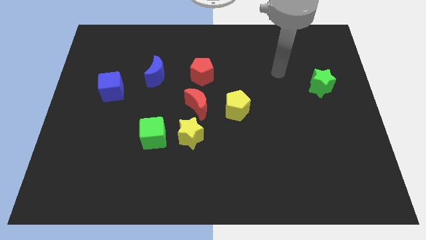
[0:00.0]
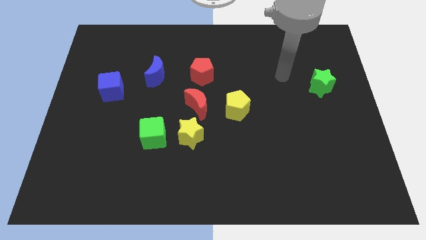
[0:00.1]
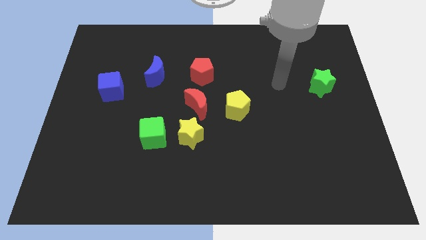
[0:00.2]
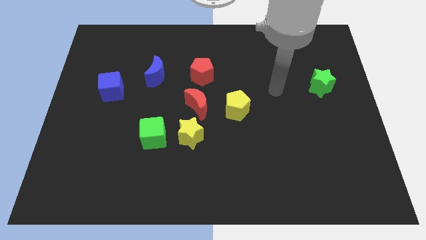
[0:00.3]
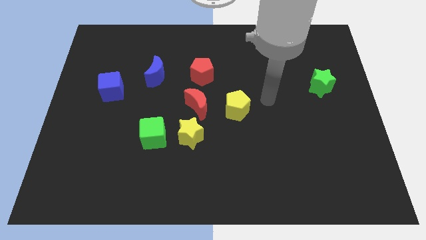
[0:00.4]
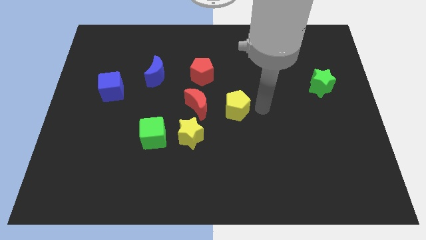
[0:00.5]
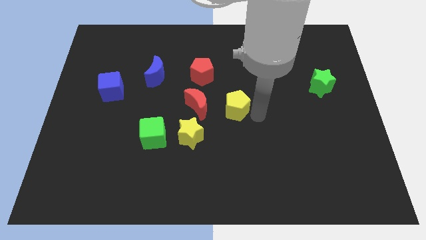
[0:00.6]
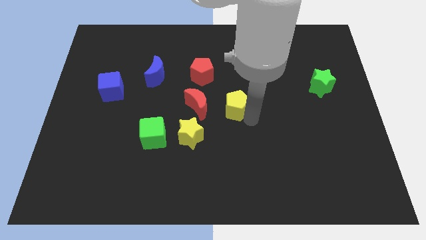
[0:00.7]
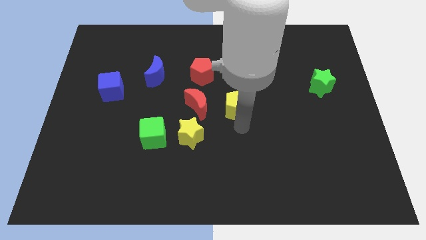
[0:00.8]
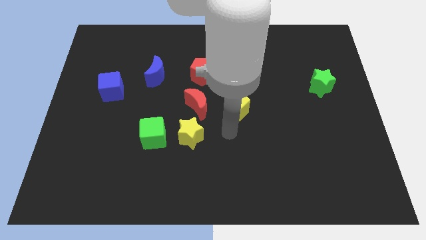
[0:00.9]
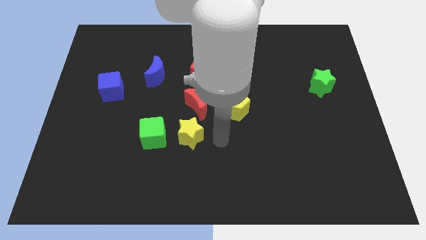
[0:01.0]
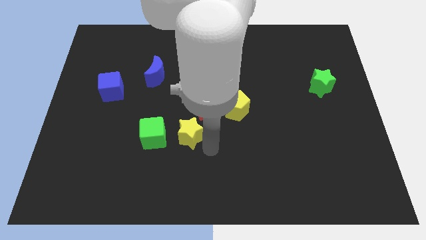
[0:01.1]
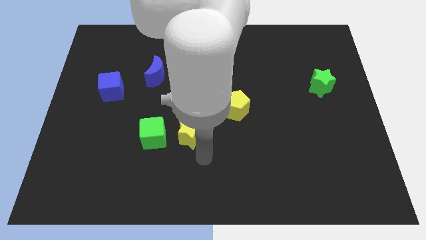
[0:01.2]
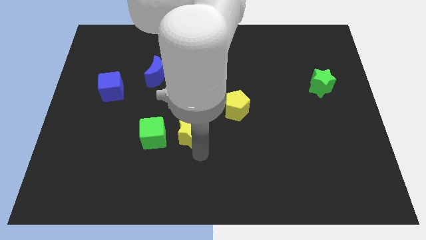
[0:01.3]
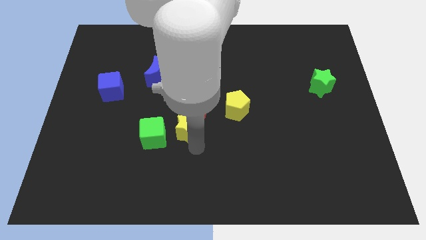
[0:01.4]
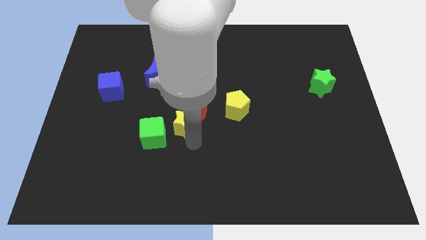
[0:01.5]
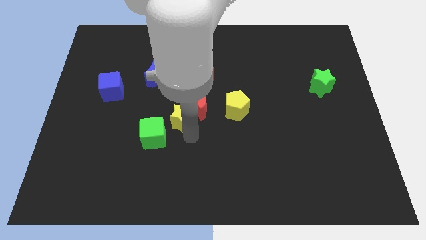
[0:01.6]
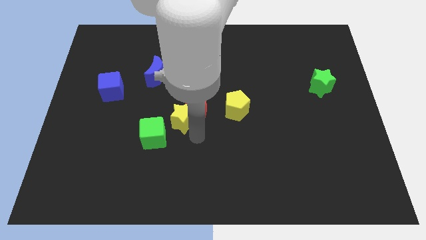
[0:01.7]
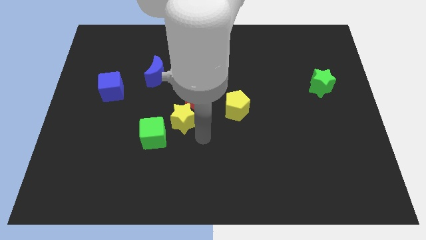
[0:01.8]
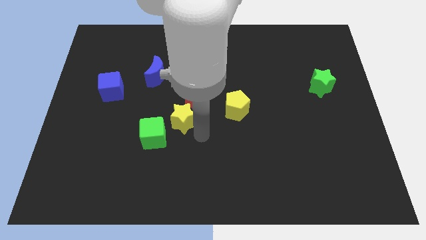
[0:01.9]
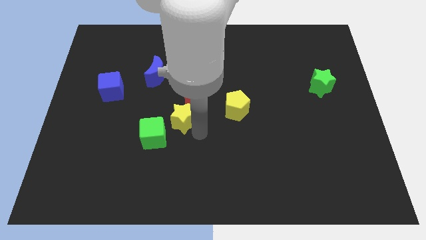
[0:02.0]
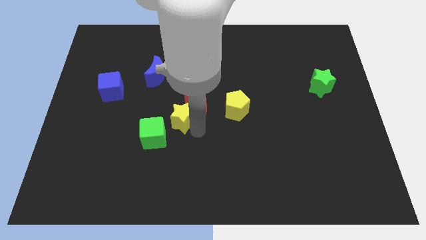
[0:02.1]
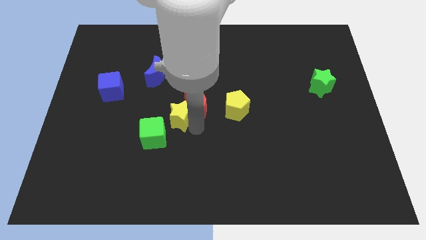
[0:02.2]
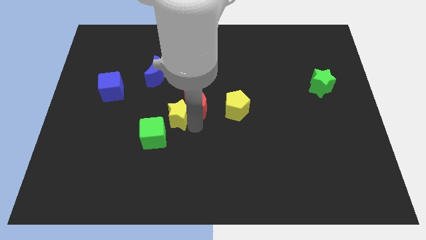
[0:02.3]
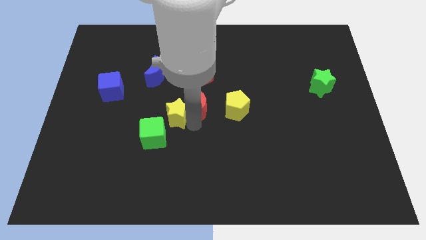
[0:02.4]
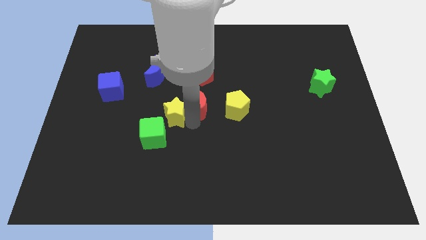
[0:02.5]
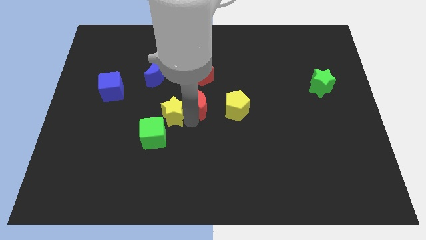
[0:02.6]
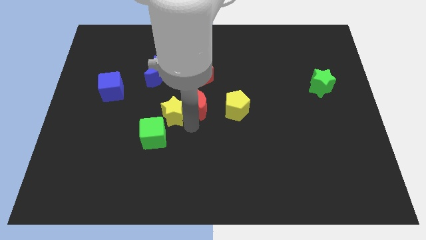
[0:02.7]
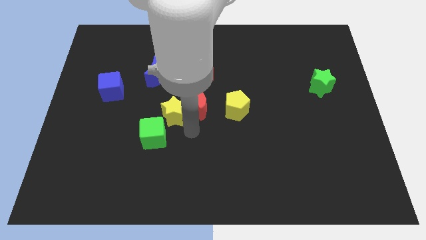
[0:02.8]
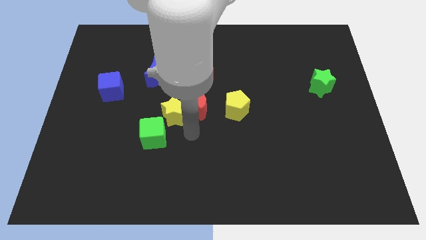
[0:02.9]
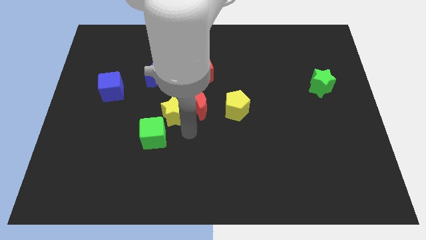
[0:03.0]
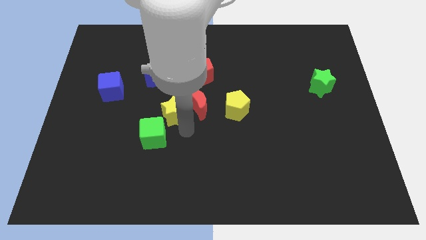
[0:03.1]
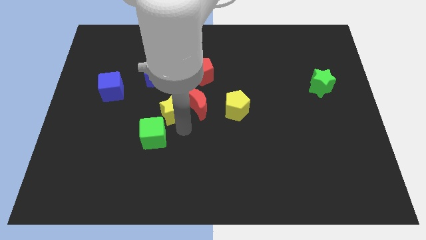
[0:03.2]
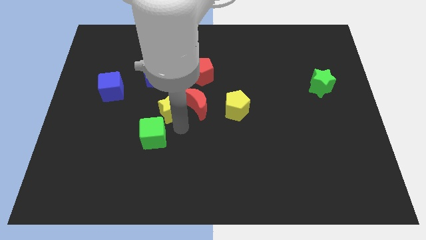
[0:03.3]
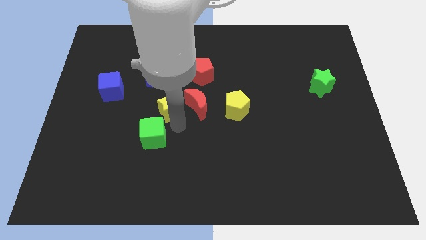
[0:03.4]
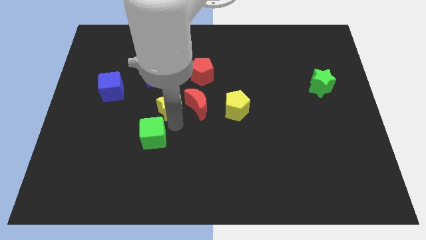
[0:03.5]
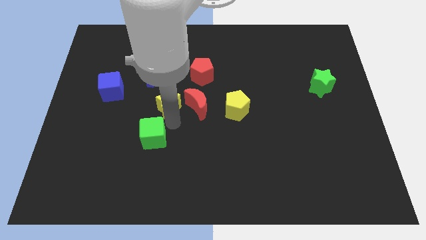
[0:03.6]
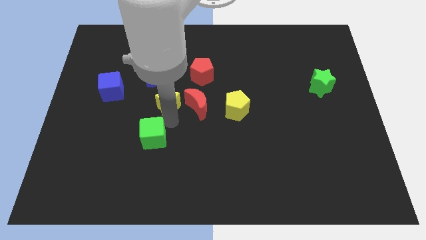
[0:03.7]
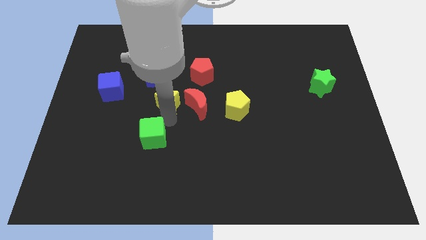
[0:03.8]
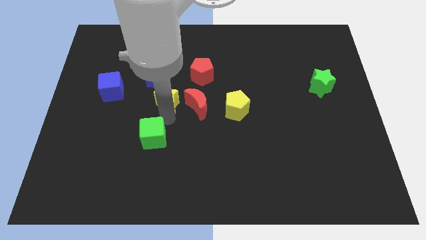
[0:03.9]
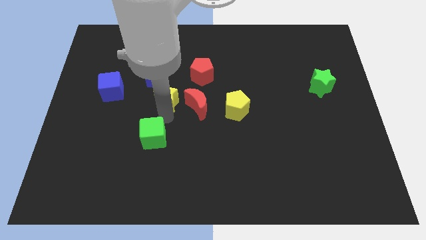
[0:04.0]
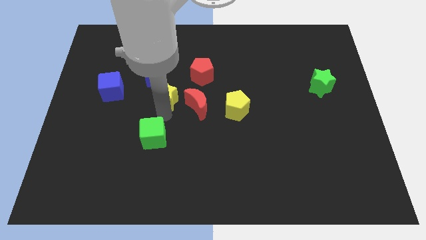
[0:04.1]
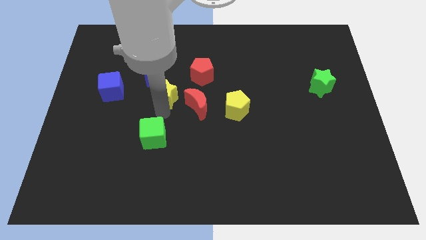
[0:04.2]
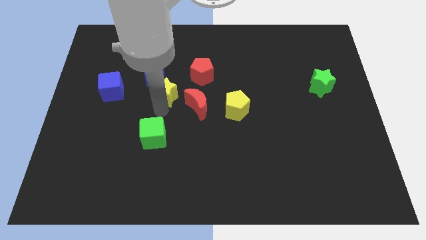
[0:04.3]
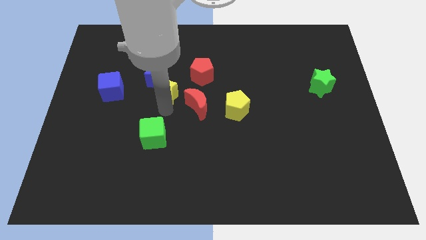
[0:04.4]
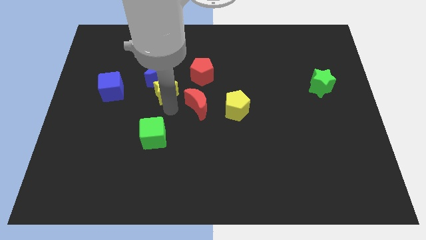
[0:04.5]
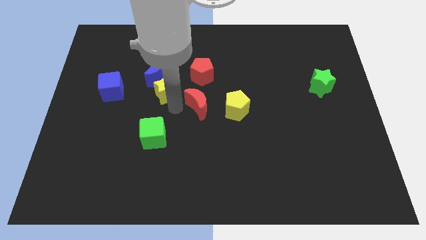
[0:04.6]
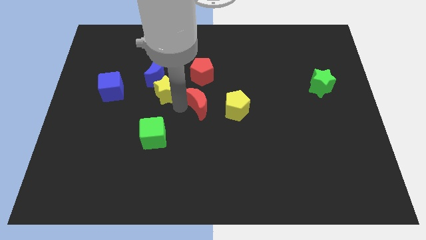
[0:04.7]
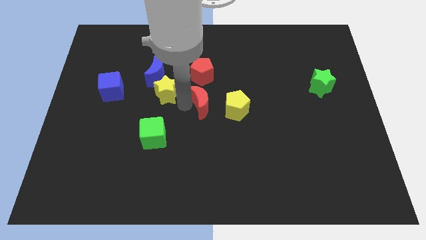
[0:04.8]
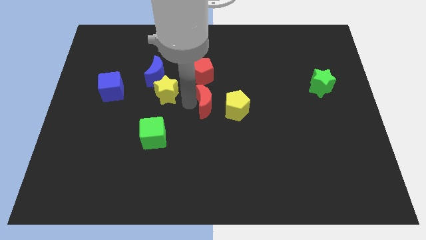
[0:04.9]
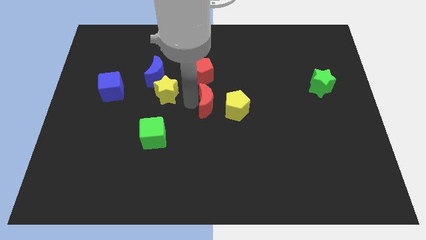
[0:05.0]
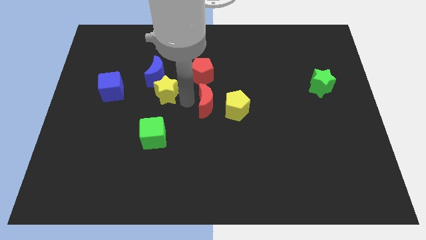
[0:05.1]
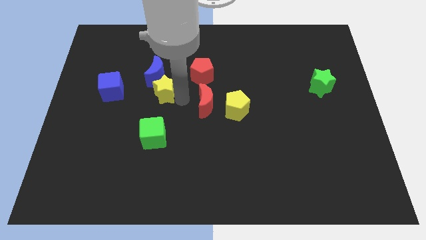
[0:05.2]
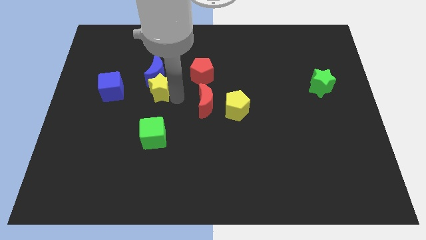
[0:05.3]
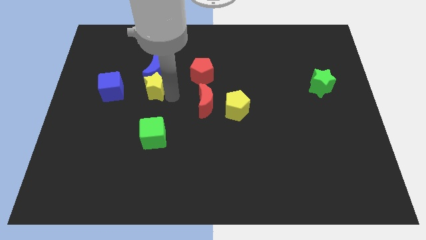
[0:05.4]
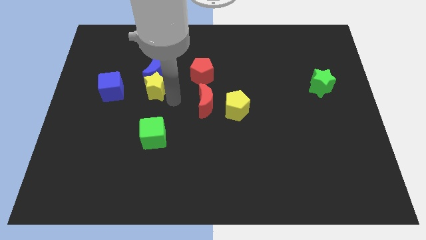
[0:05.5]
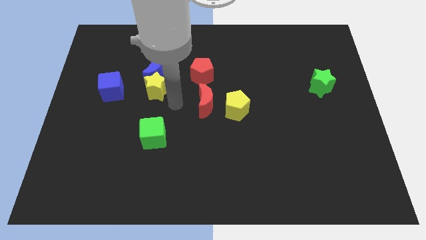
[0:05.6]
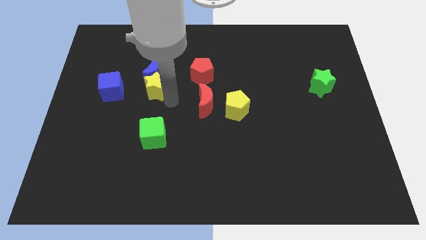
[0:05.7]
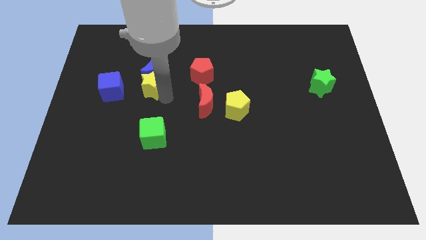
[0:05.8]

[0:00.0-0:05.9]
slide the yellow star to the left side of the red pentagon

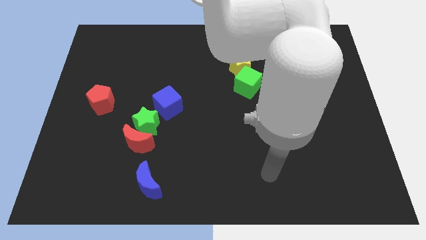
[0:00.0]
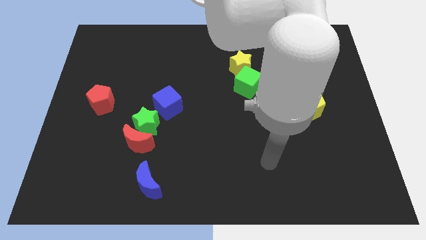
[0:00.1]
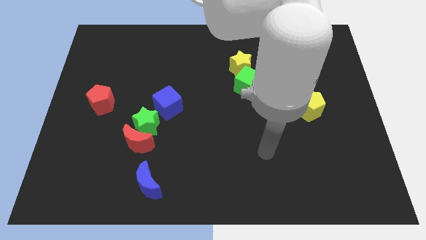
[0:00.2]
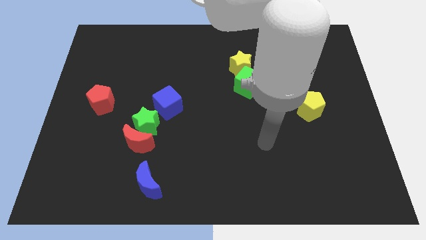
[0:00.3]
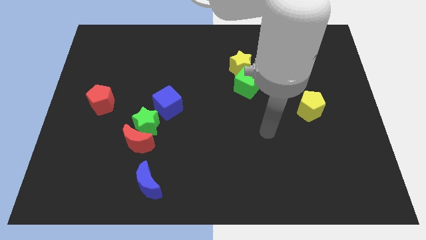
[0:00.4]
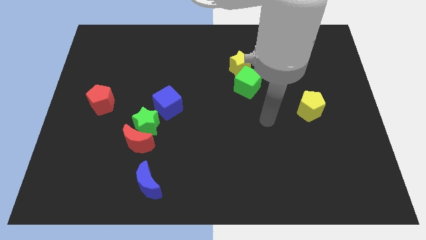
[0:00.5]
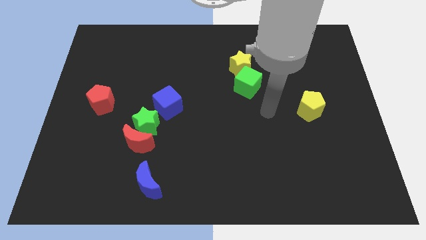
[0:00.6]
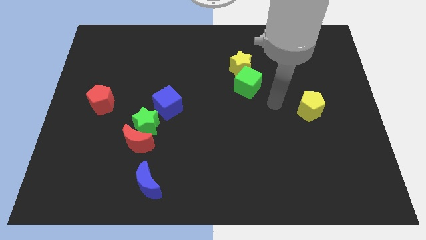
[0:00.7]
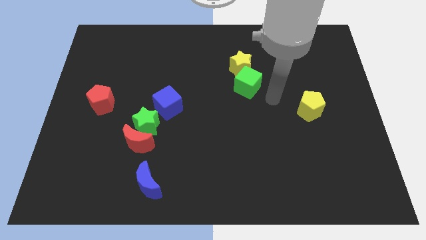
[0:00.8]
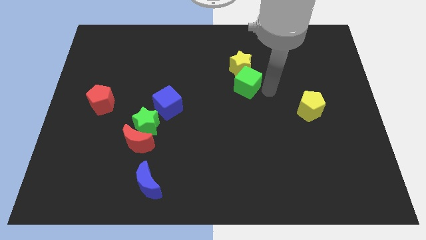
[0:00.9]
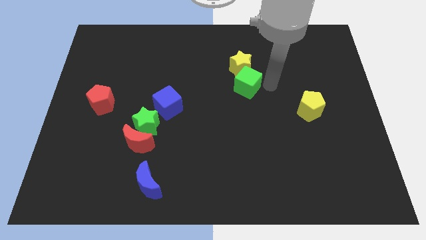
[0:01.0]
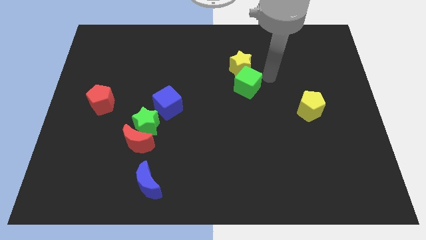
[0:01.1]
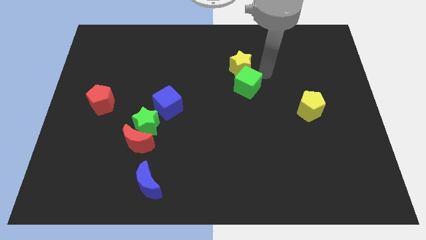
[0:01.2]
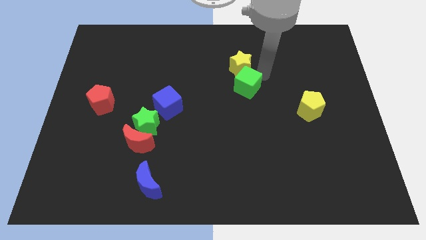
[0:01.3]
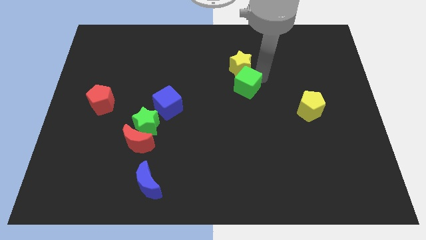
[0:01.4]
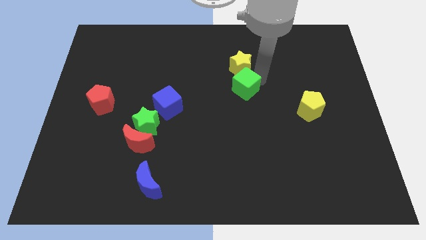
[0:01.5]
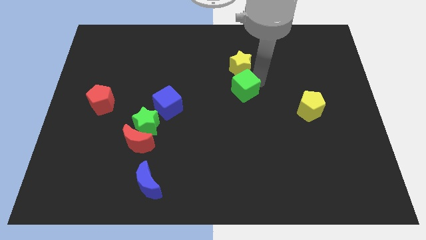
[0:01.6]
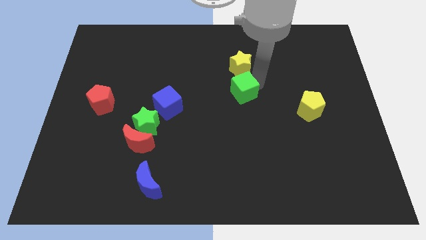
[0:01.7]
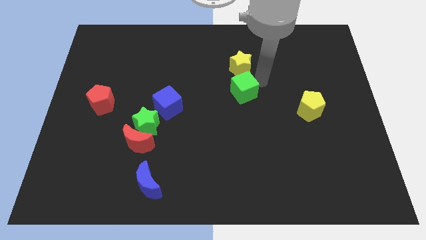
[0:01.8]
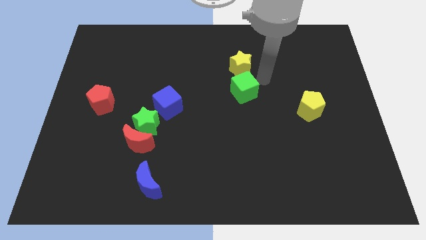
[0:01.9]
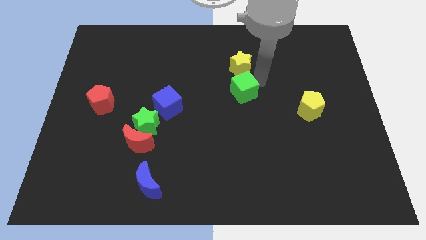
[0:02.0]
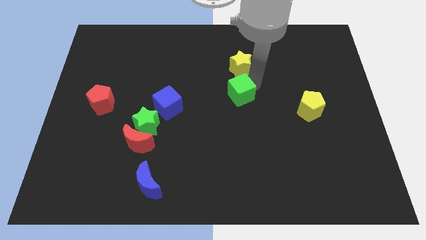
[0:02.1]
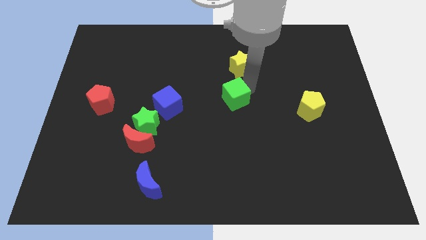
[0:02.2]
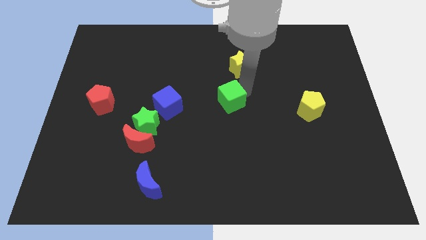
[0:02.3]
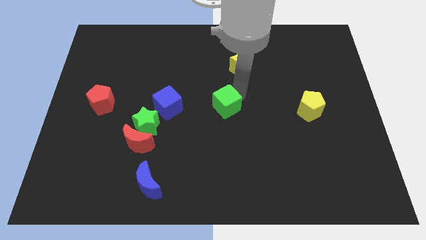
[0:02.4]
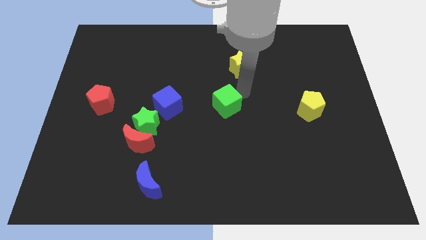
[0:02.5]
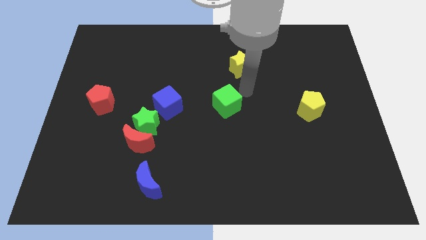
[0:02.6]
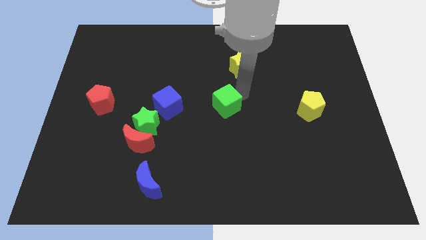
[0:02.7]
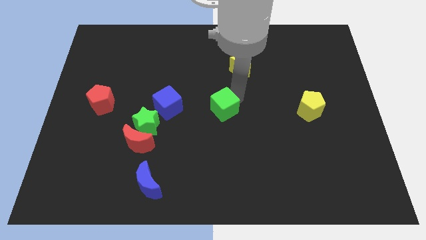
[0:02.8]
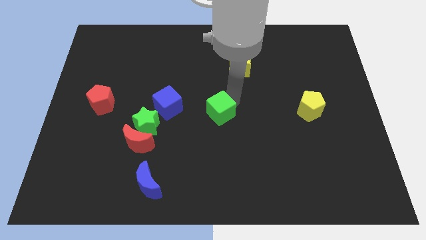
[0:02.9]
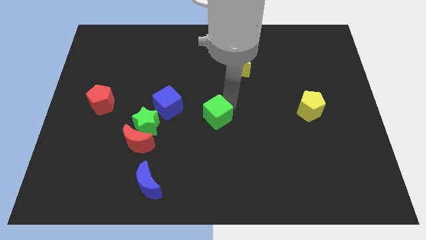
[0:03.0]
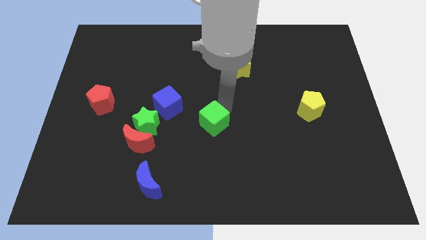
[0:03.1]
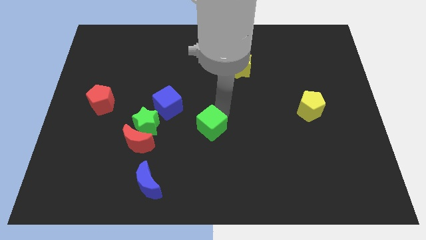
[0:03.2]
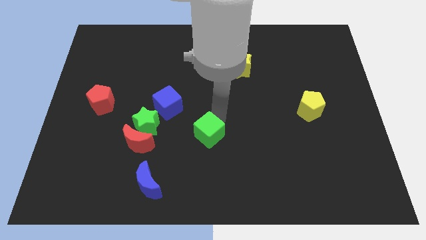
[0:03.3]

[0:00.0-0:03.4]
move the green cube right of the red moon
